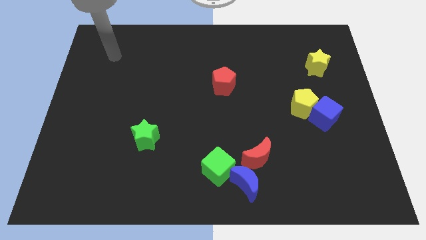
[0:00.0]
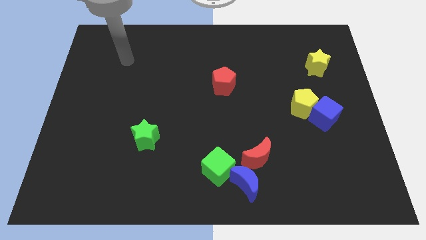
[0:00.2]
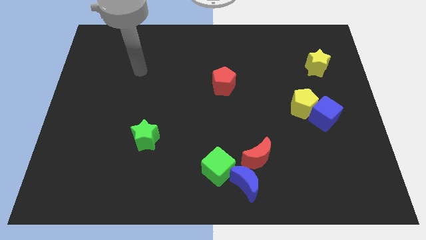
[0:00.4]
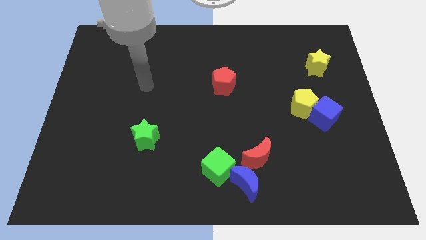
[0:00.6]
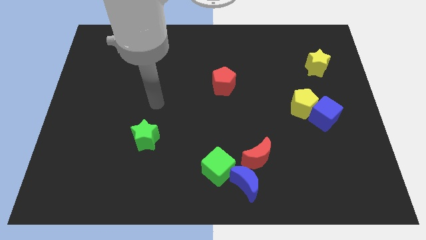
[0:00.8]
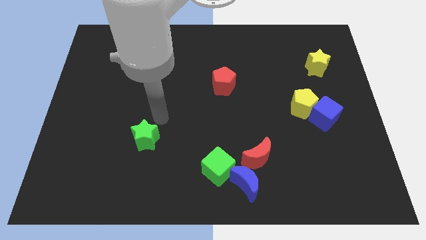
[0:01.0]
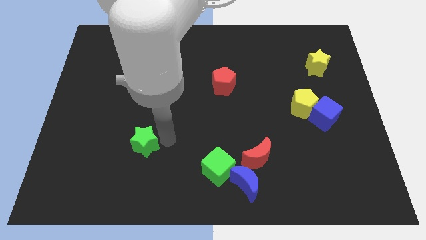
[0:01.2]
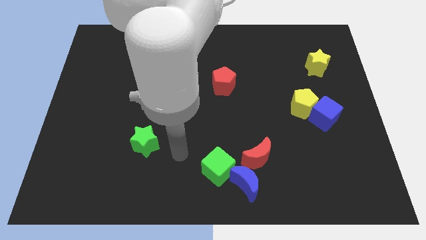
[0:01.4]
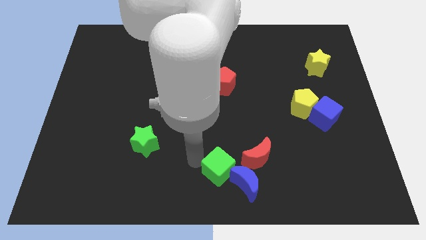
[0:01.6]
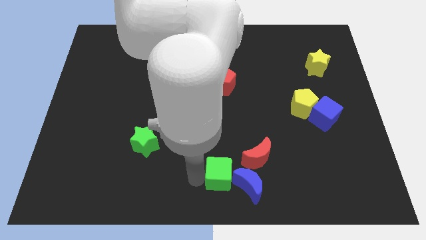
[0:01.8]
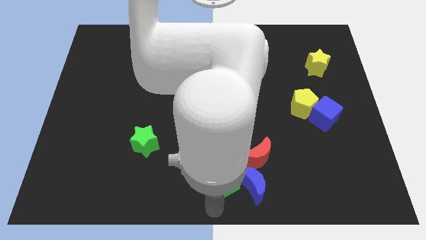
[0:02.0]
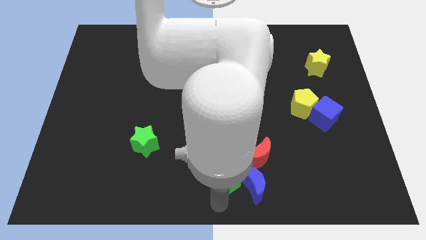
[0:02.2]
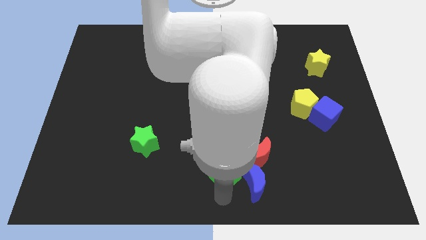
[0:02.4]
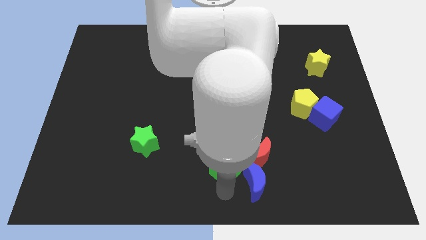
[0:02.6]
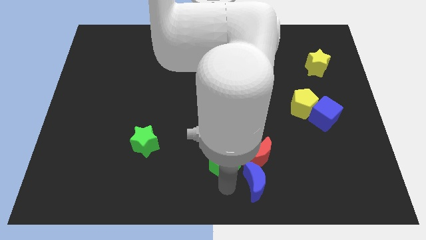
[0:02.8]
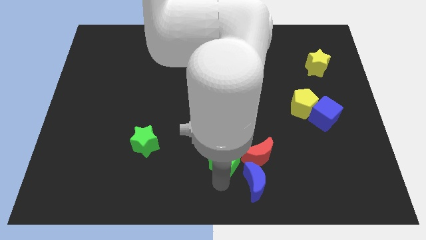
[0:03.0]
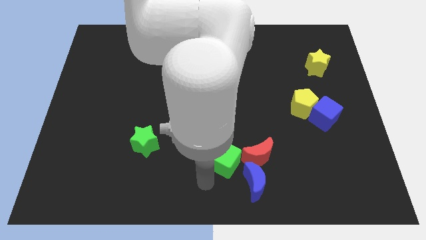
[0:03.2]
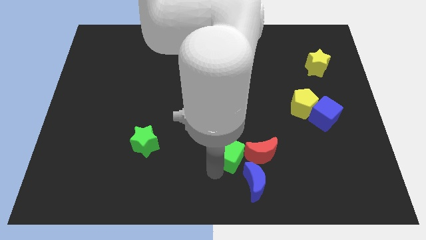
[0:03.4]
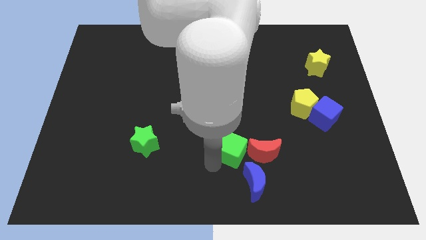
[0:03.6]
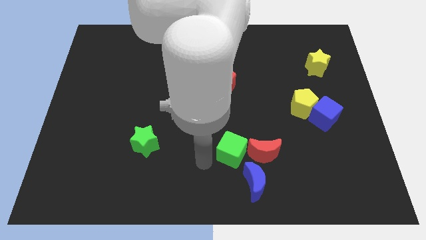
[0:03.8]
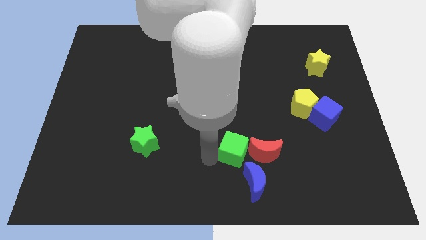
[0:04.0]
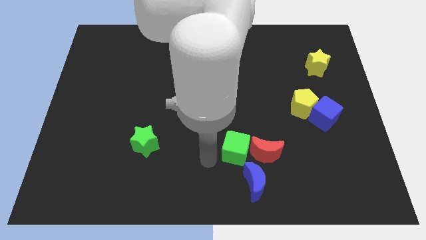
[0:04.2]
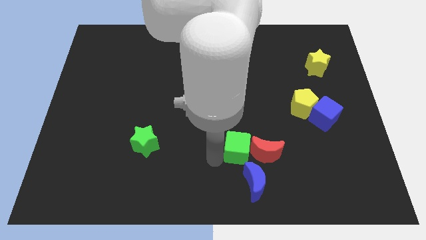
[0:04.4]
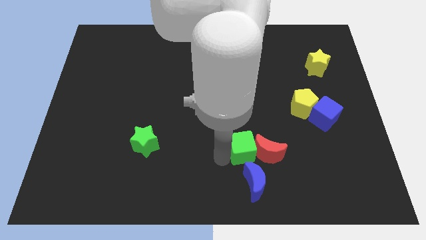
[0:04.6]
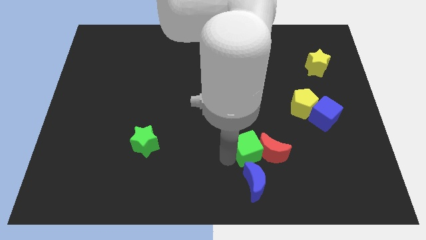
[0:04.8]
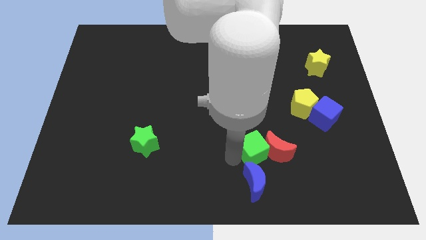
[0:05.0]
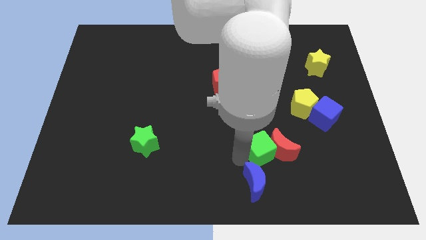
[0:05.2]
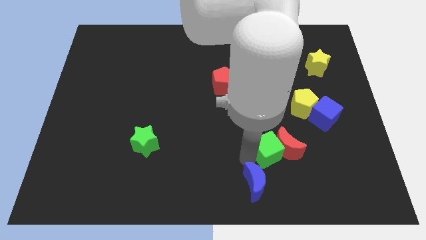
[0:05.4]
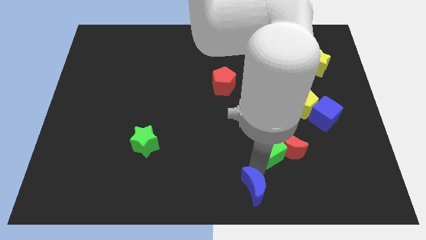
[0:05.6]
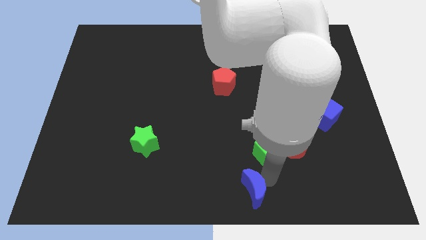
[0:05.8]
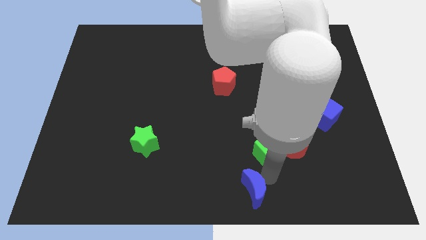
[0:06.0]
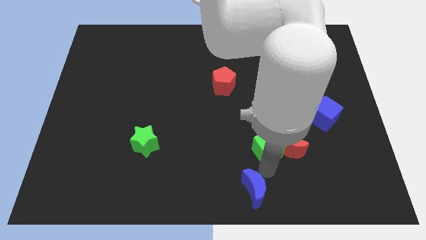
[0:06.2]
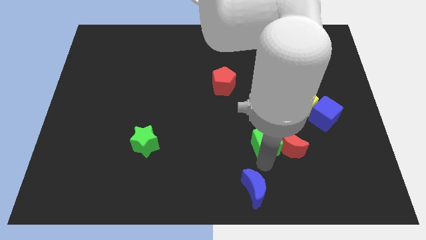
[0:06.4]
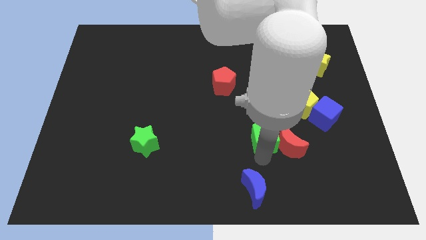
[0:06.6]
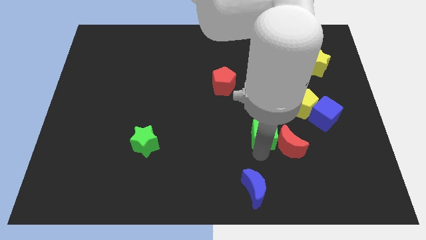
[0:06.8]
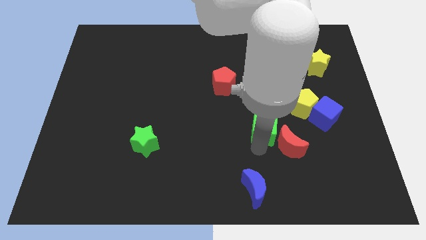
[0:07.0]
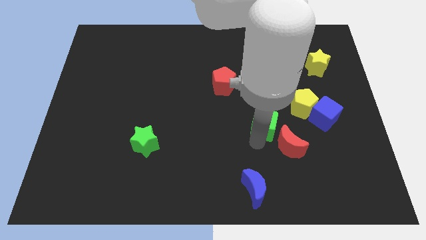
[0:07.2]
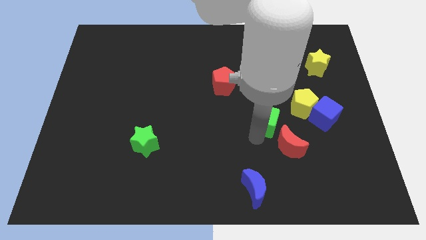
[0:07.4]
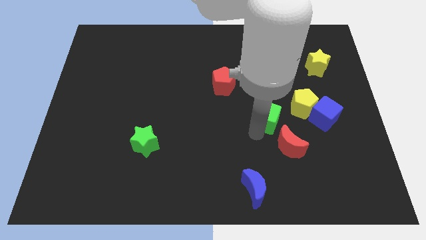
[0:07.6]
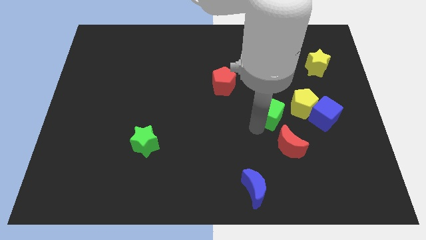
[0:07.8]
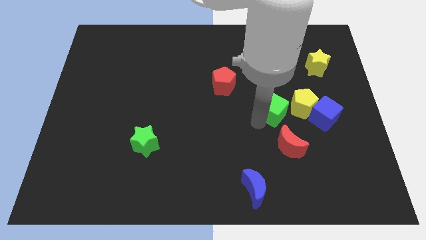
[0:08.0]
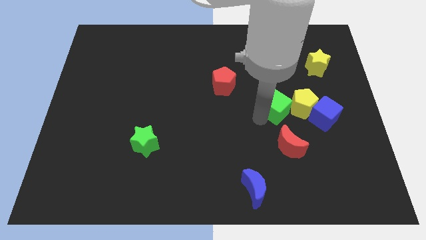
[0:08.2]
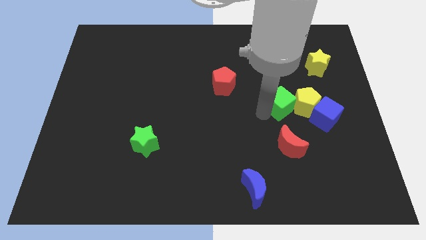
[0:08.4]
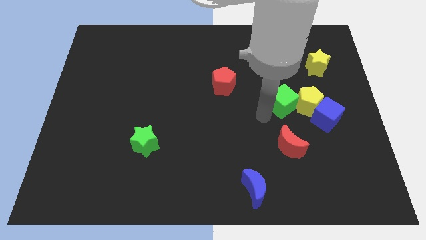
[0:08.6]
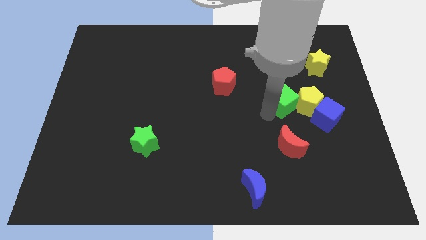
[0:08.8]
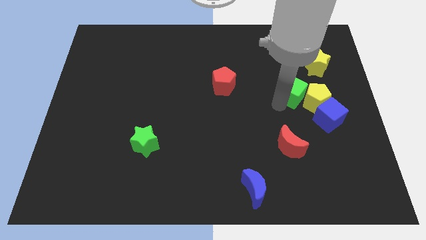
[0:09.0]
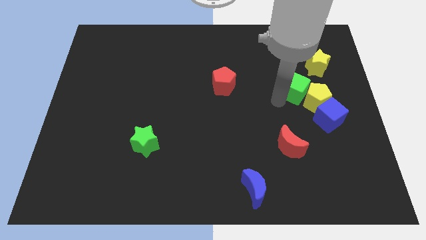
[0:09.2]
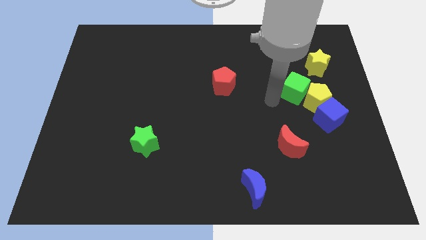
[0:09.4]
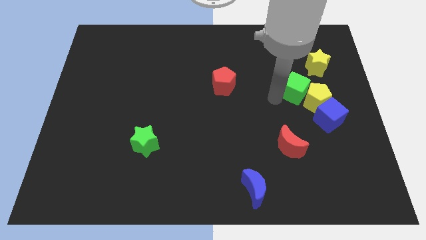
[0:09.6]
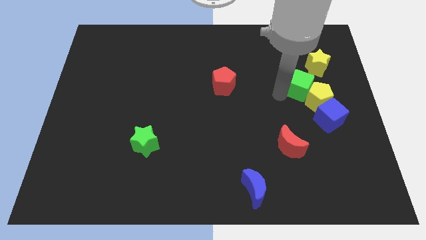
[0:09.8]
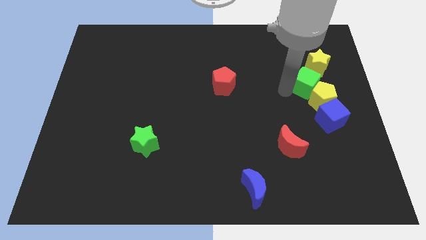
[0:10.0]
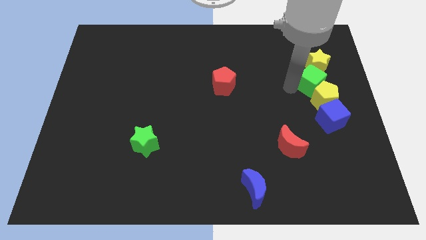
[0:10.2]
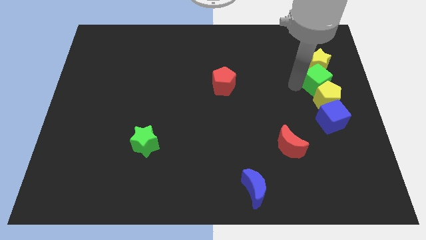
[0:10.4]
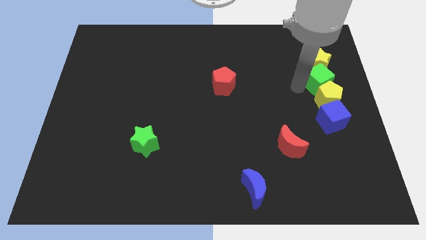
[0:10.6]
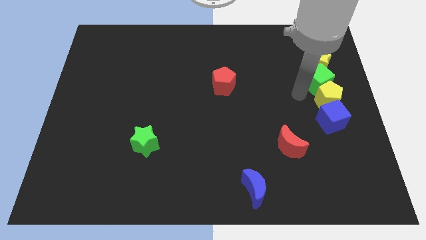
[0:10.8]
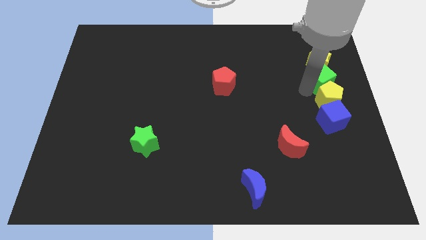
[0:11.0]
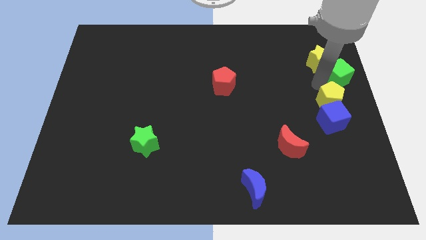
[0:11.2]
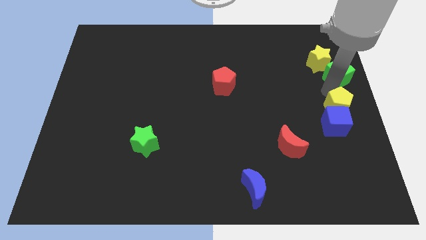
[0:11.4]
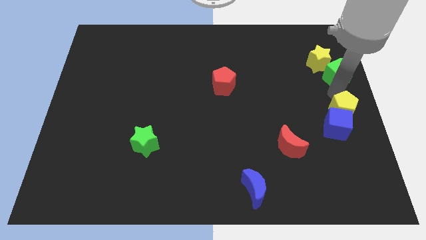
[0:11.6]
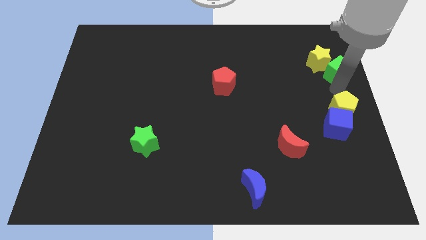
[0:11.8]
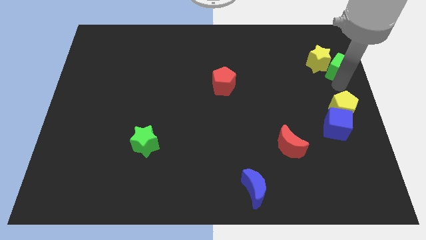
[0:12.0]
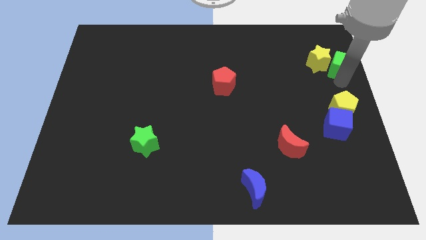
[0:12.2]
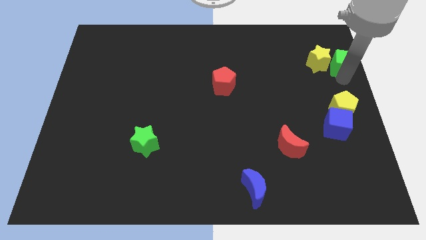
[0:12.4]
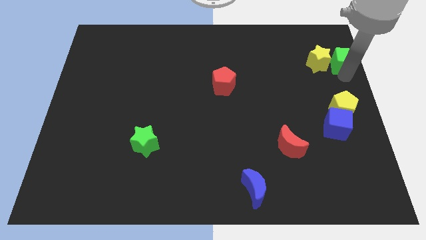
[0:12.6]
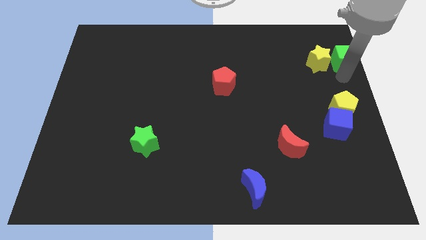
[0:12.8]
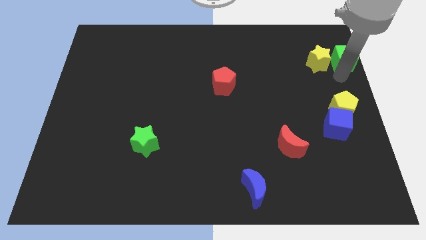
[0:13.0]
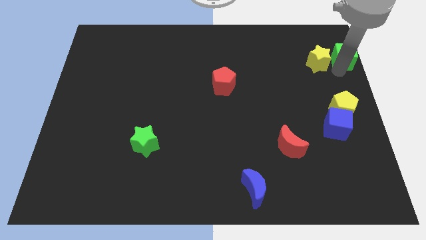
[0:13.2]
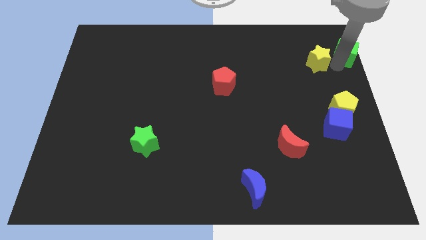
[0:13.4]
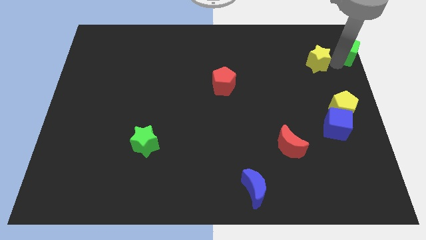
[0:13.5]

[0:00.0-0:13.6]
slide the green cube to the upper right corner

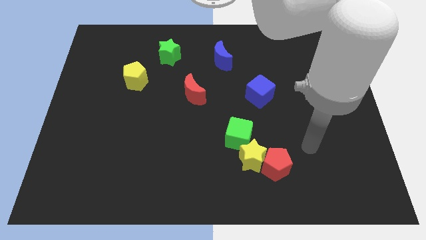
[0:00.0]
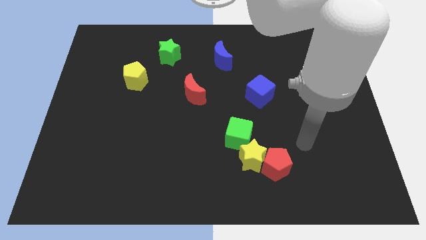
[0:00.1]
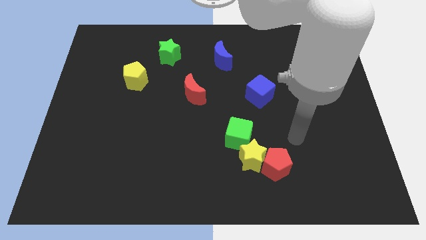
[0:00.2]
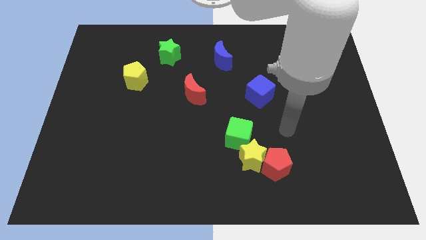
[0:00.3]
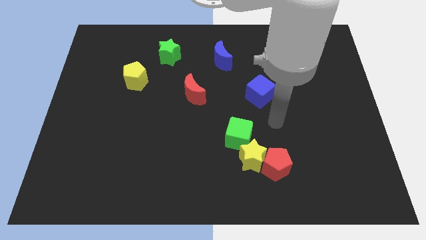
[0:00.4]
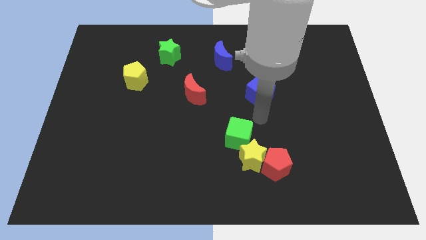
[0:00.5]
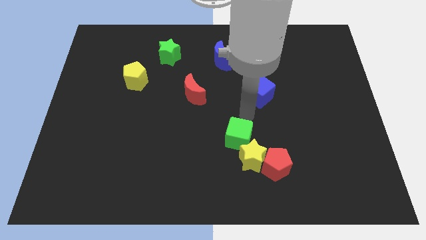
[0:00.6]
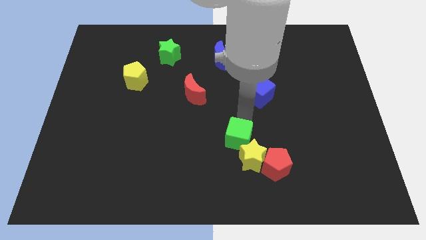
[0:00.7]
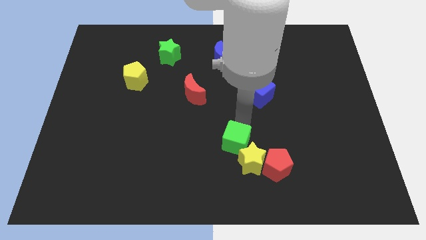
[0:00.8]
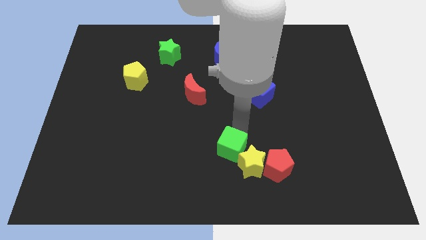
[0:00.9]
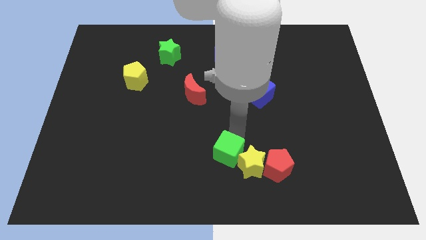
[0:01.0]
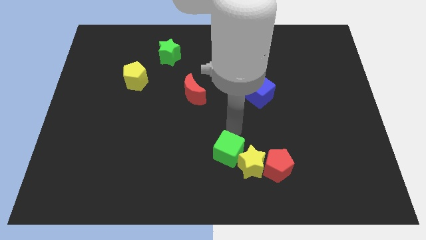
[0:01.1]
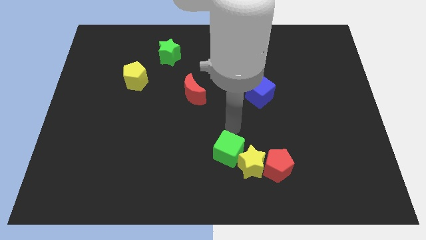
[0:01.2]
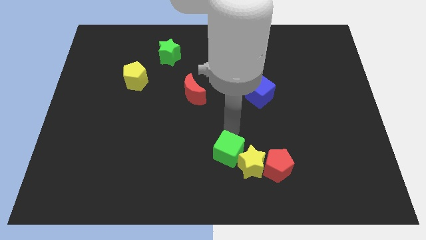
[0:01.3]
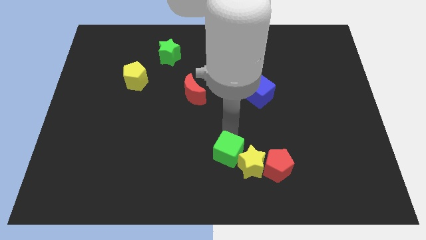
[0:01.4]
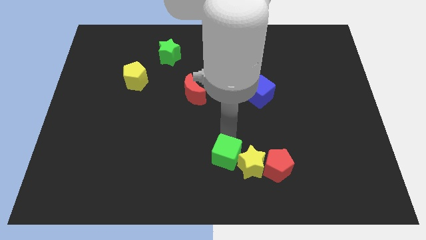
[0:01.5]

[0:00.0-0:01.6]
slide the green cube to the bottom side
